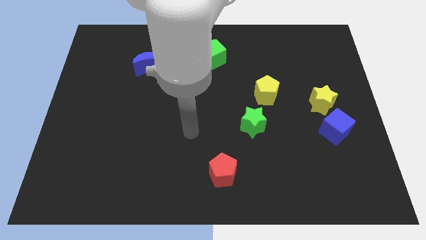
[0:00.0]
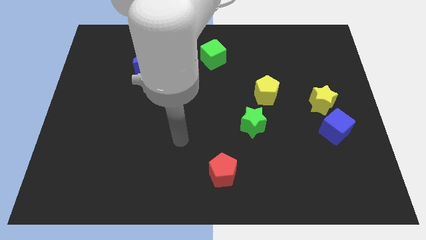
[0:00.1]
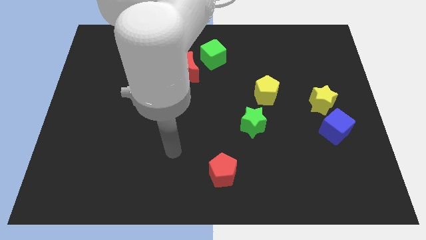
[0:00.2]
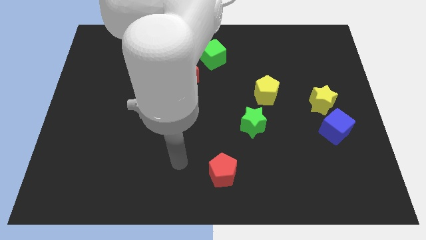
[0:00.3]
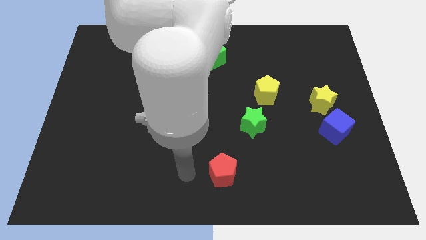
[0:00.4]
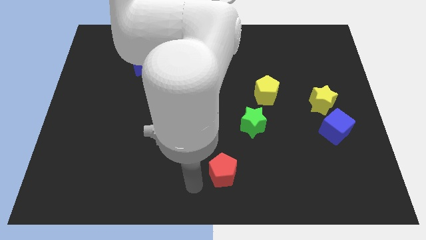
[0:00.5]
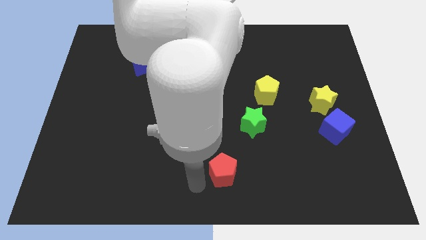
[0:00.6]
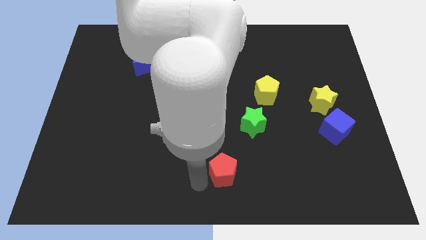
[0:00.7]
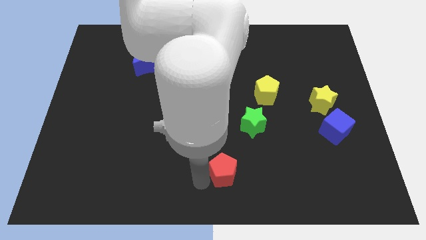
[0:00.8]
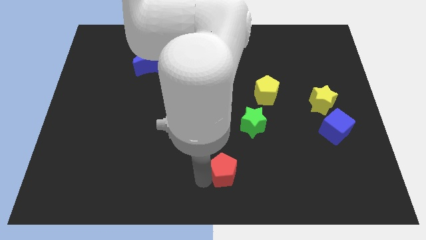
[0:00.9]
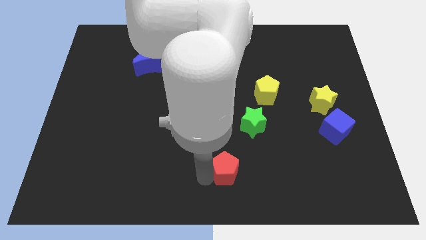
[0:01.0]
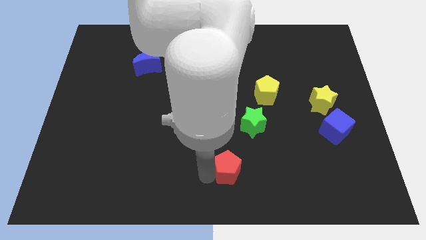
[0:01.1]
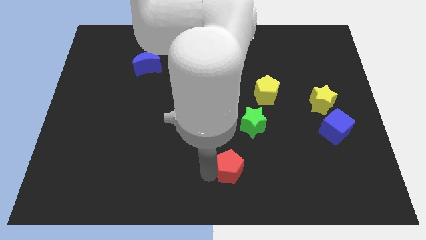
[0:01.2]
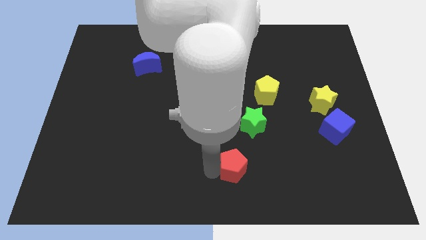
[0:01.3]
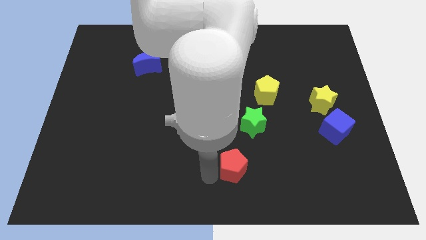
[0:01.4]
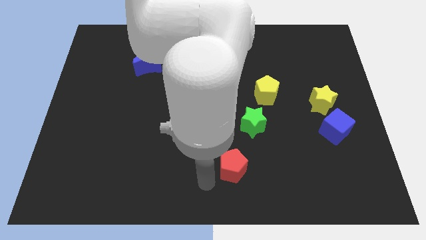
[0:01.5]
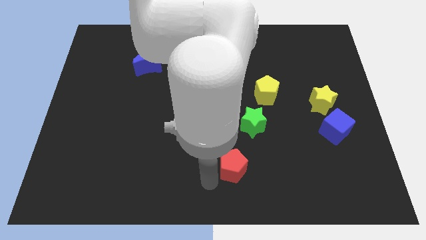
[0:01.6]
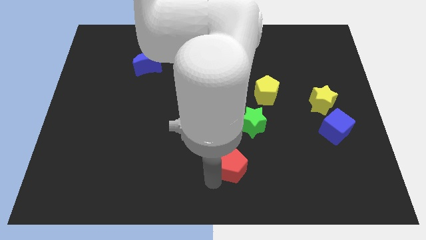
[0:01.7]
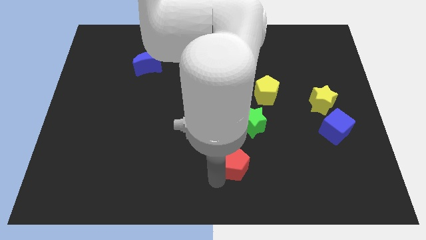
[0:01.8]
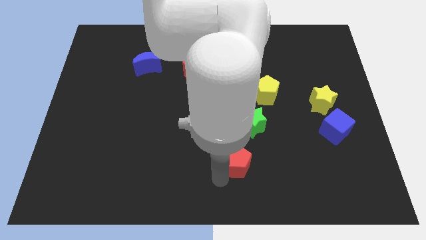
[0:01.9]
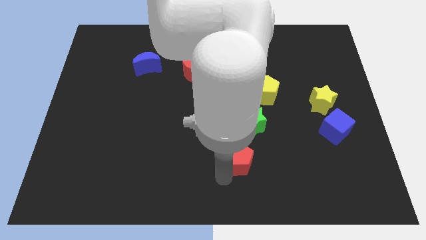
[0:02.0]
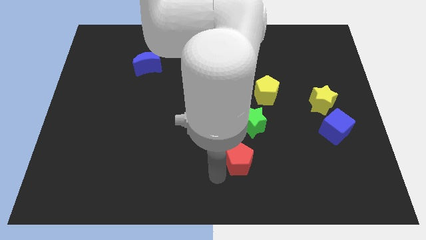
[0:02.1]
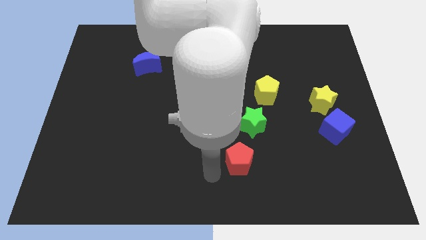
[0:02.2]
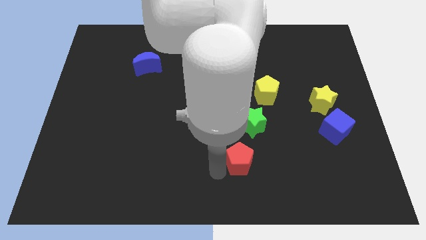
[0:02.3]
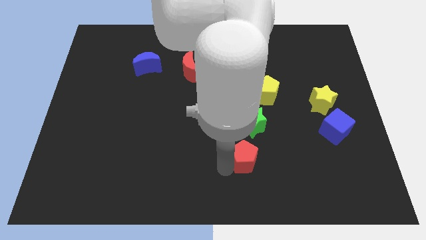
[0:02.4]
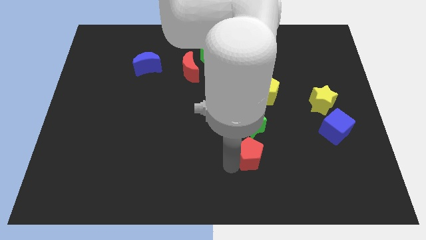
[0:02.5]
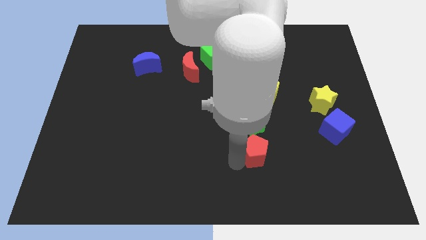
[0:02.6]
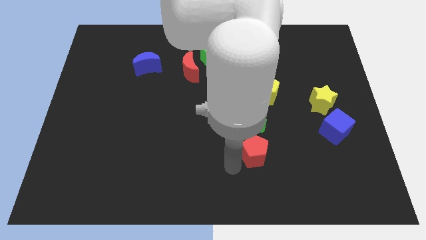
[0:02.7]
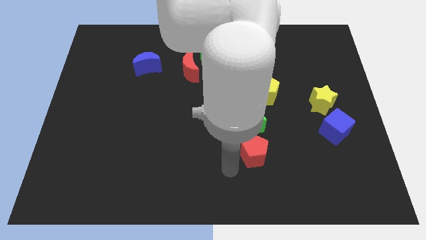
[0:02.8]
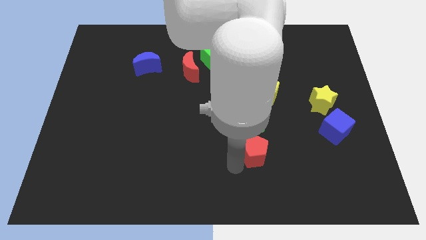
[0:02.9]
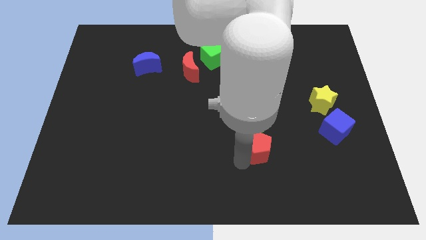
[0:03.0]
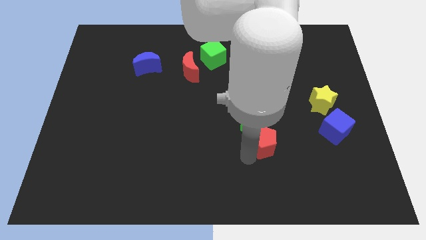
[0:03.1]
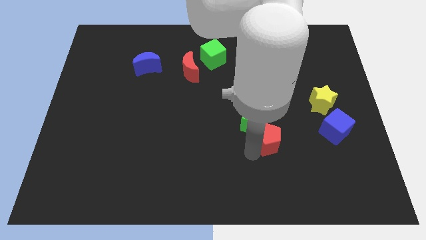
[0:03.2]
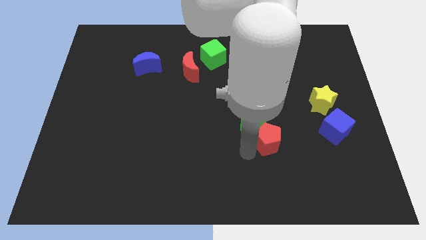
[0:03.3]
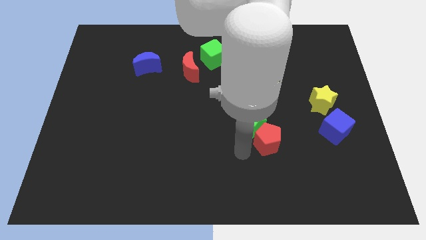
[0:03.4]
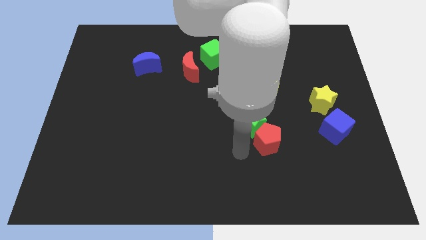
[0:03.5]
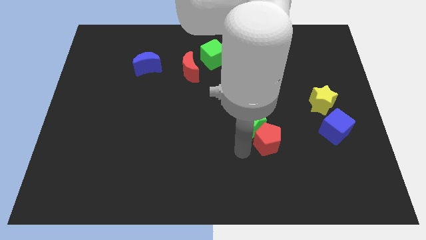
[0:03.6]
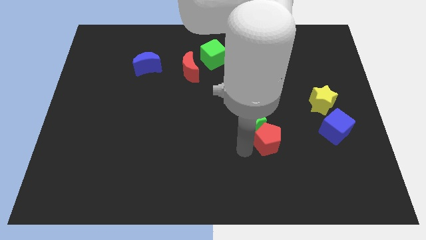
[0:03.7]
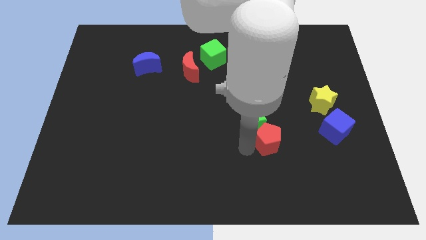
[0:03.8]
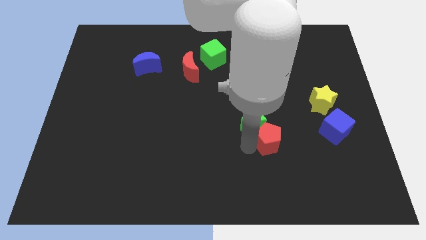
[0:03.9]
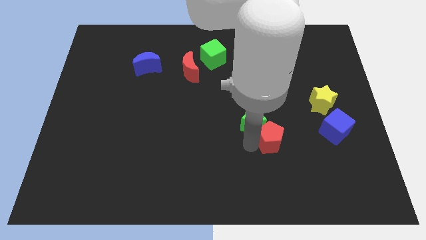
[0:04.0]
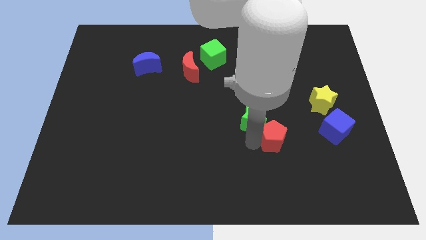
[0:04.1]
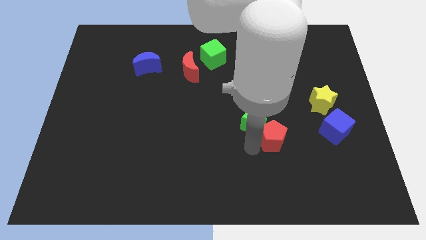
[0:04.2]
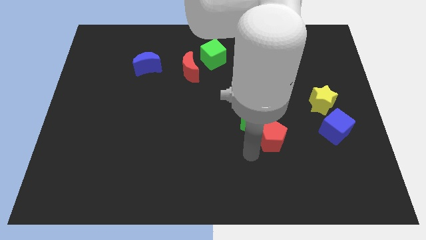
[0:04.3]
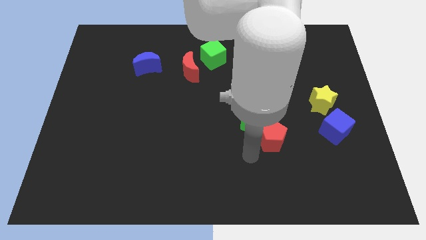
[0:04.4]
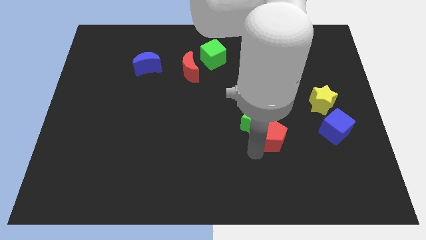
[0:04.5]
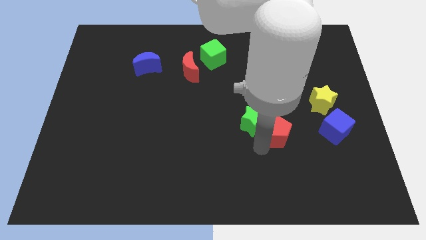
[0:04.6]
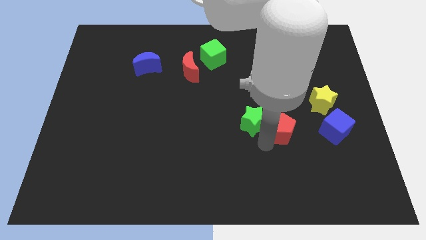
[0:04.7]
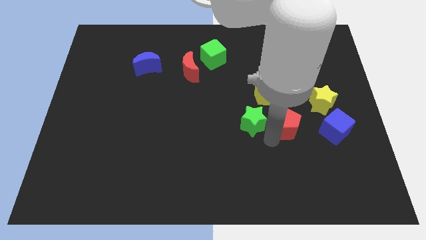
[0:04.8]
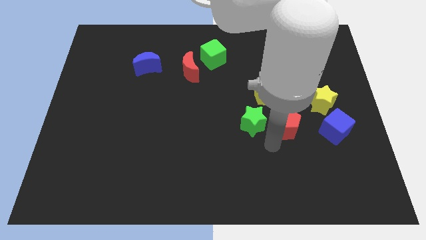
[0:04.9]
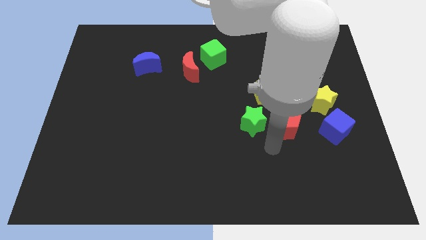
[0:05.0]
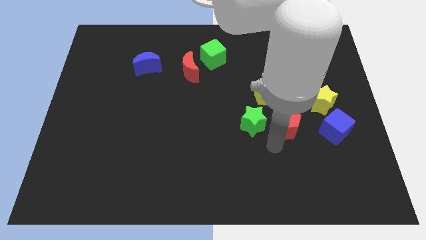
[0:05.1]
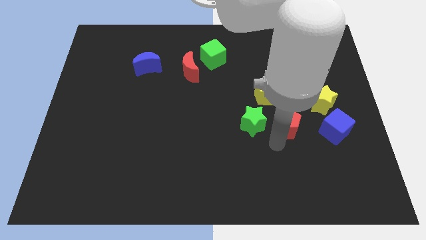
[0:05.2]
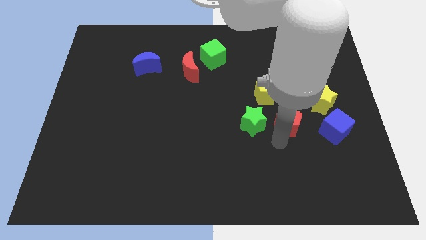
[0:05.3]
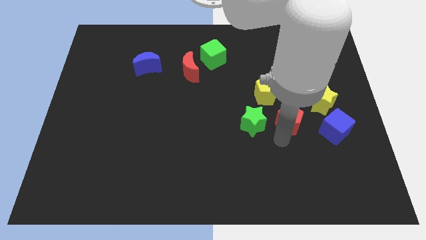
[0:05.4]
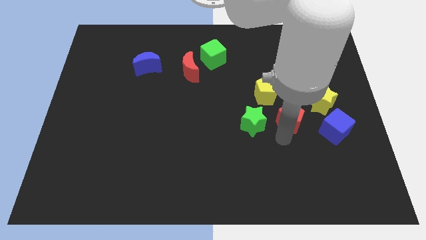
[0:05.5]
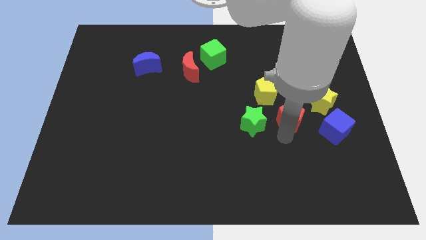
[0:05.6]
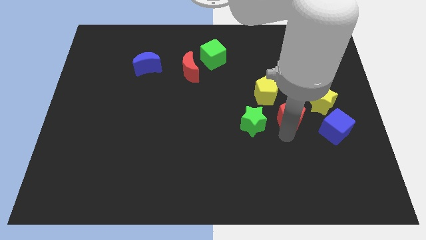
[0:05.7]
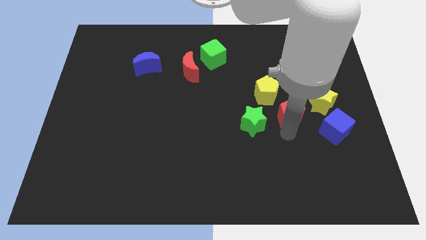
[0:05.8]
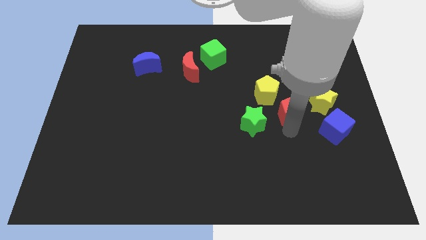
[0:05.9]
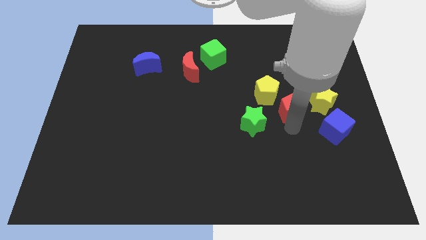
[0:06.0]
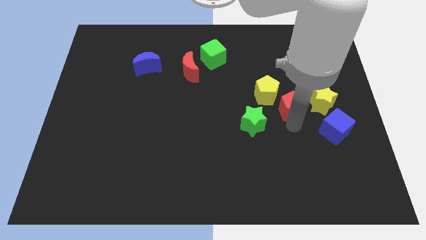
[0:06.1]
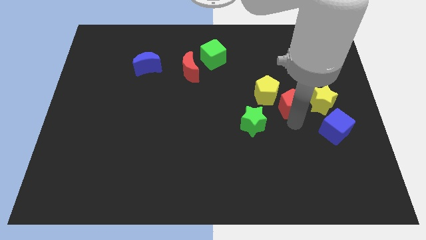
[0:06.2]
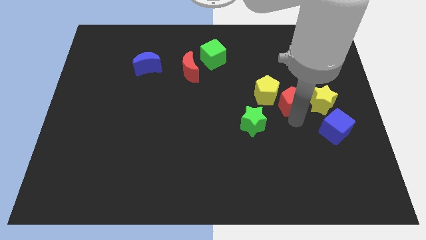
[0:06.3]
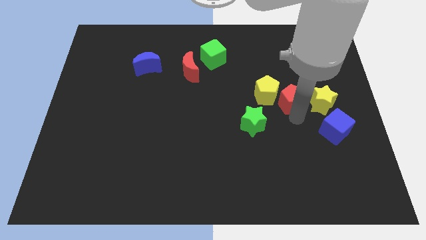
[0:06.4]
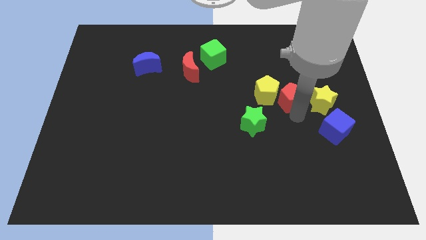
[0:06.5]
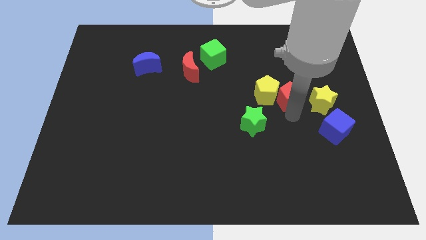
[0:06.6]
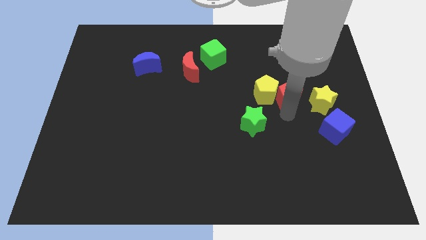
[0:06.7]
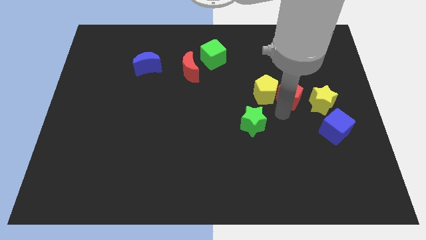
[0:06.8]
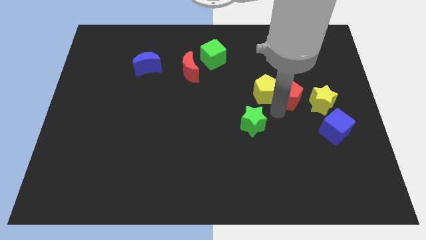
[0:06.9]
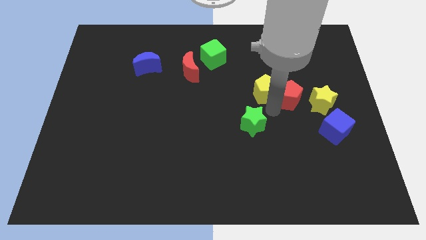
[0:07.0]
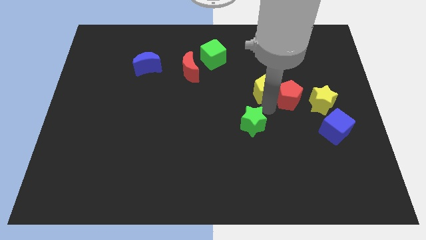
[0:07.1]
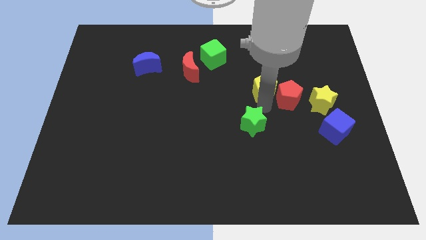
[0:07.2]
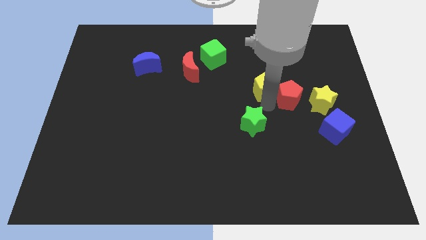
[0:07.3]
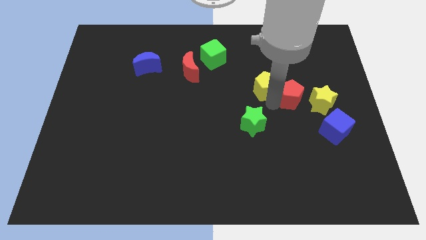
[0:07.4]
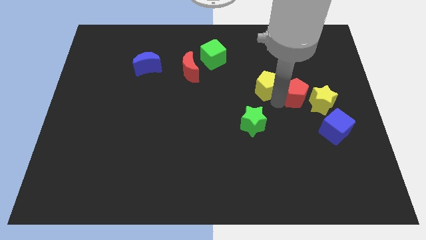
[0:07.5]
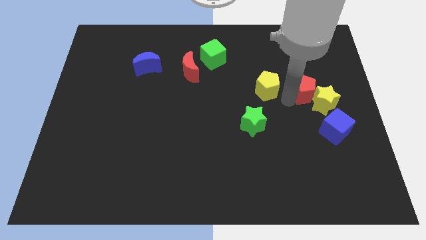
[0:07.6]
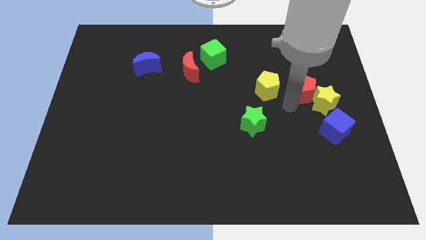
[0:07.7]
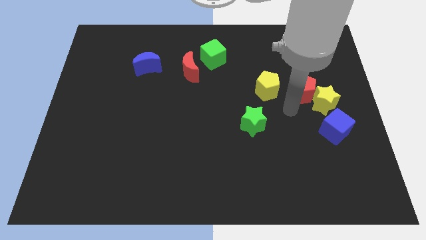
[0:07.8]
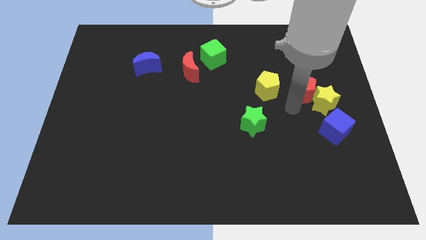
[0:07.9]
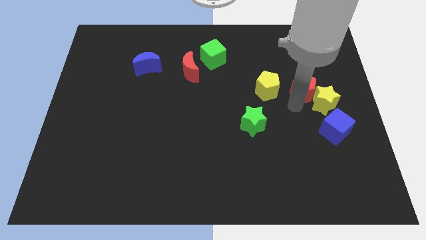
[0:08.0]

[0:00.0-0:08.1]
slide the red pentagon to the top of the yellow star
